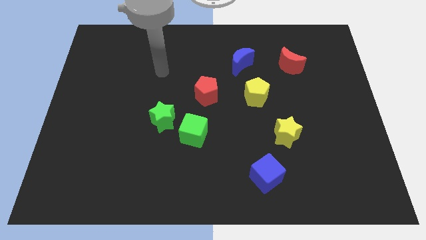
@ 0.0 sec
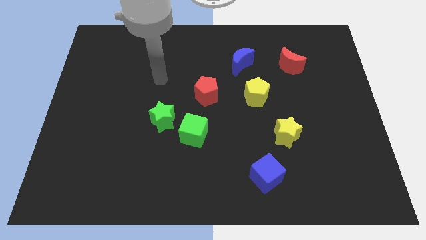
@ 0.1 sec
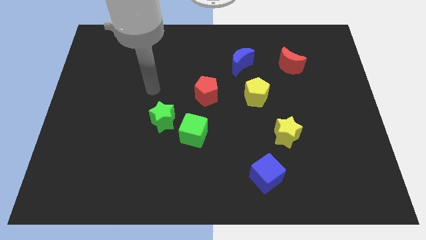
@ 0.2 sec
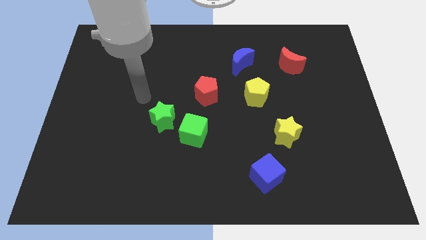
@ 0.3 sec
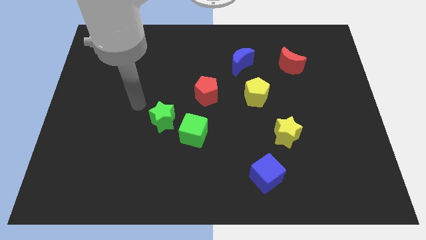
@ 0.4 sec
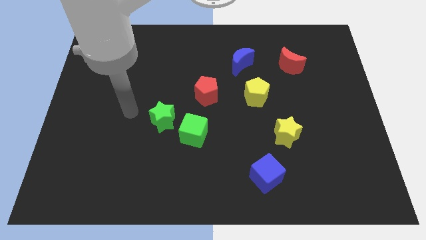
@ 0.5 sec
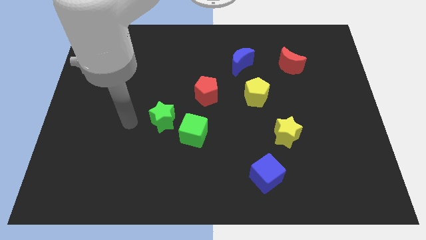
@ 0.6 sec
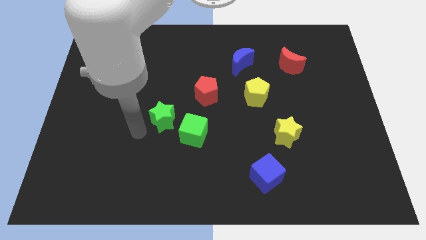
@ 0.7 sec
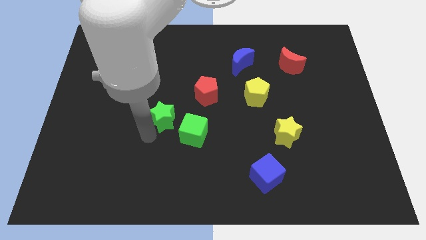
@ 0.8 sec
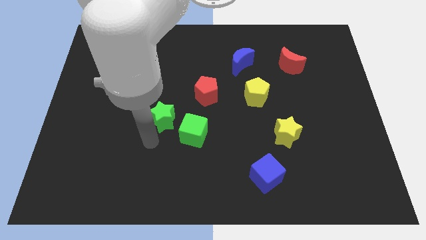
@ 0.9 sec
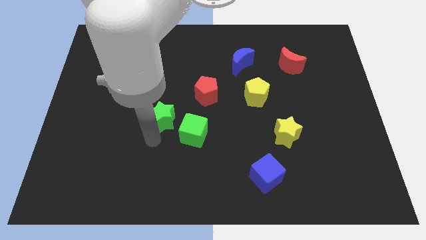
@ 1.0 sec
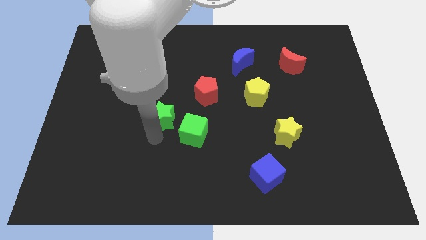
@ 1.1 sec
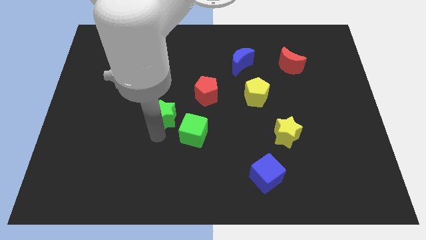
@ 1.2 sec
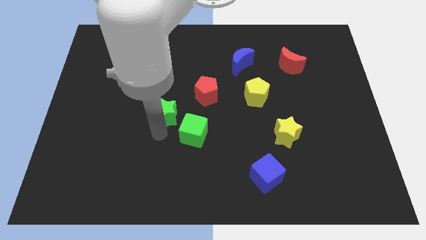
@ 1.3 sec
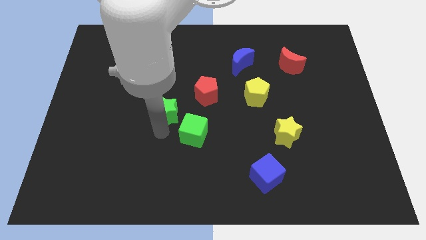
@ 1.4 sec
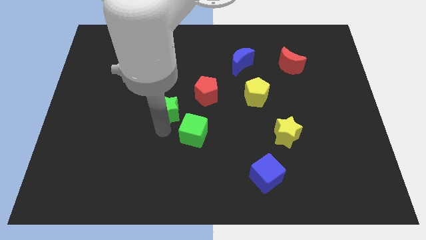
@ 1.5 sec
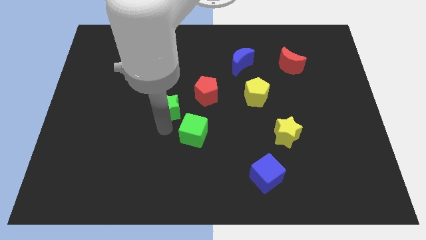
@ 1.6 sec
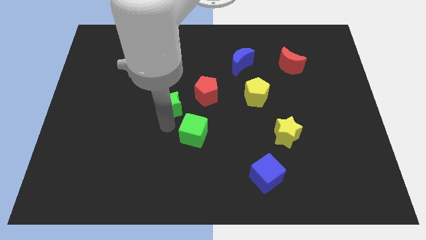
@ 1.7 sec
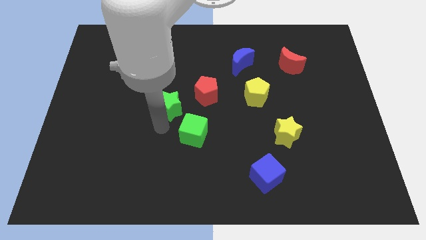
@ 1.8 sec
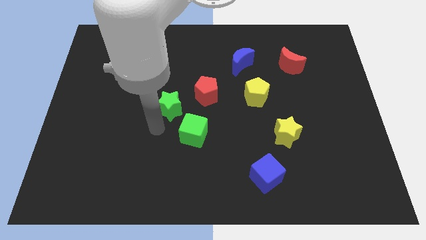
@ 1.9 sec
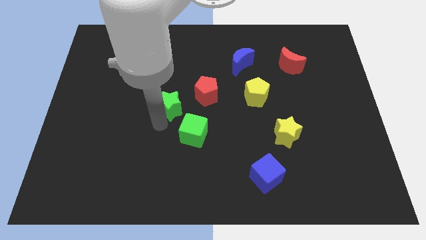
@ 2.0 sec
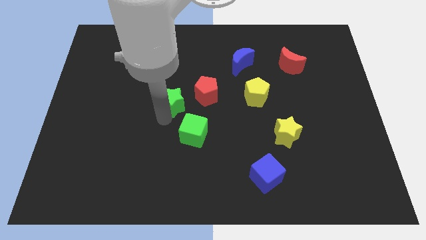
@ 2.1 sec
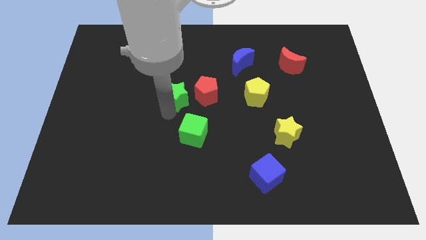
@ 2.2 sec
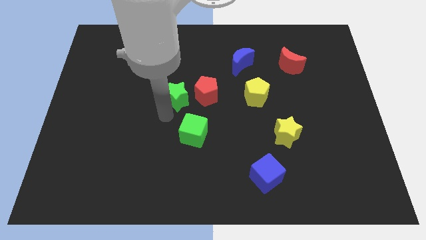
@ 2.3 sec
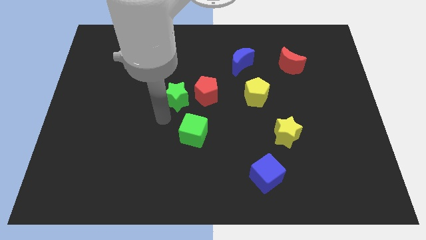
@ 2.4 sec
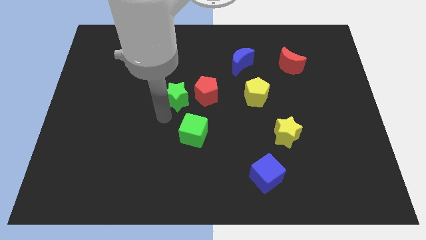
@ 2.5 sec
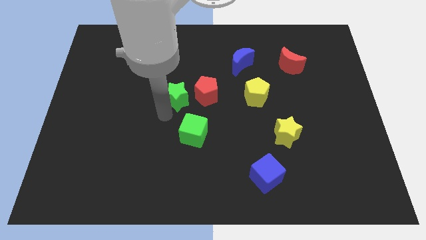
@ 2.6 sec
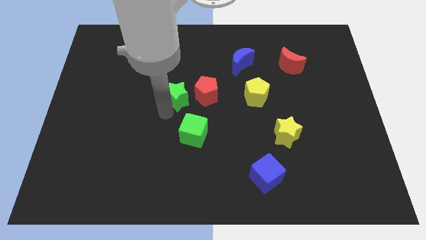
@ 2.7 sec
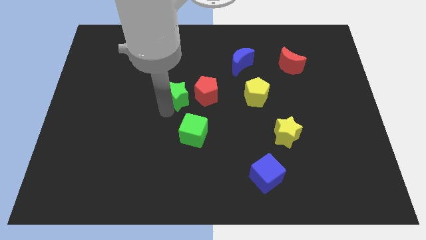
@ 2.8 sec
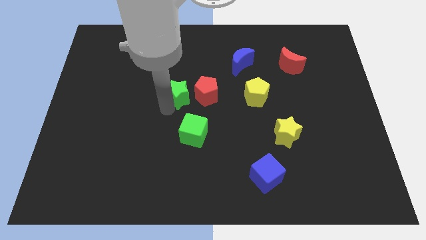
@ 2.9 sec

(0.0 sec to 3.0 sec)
move the green star upwards and right diagonally a little

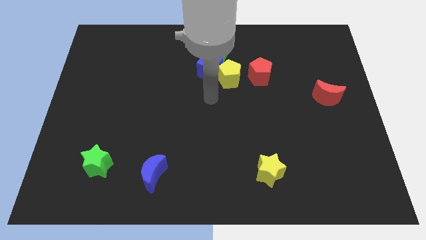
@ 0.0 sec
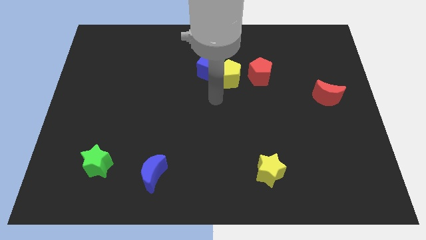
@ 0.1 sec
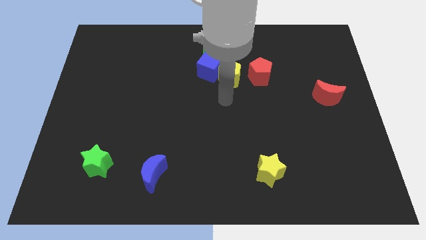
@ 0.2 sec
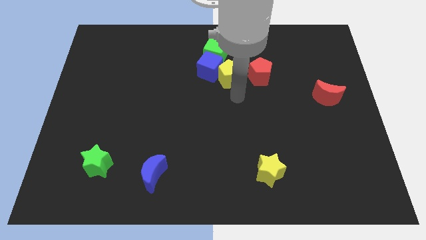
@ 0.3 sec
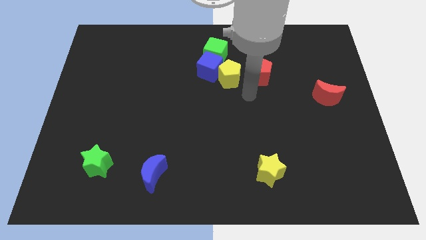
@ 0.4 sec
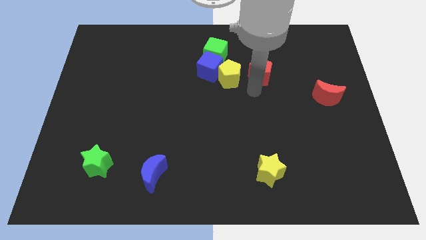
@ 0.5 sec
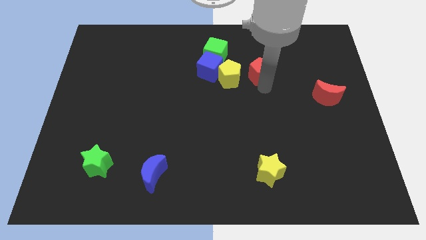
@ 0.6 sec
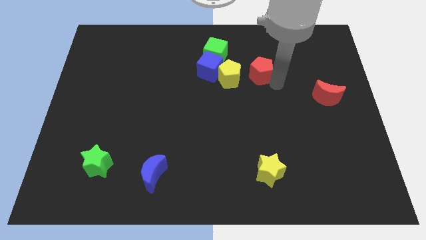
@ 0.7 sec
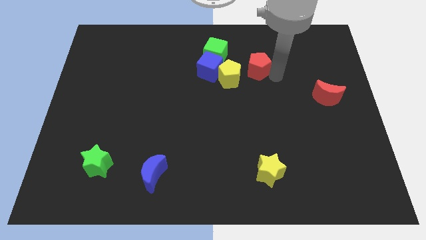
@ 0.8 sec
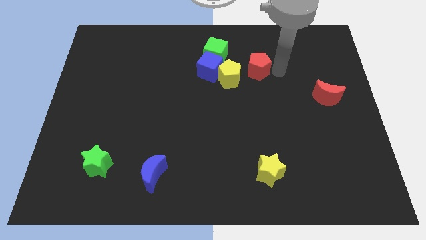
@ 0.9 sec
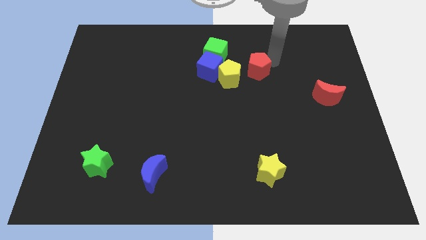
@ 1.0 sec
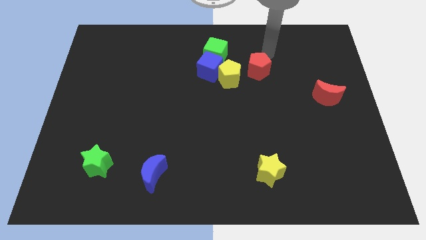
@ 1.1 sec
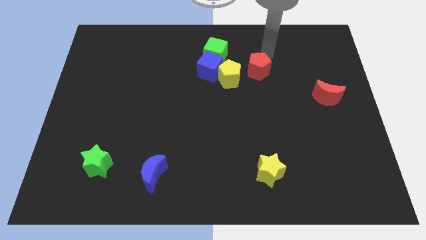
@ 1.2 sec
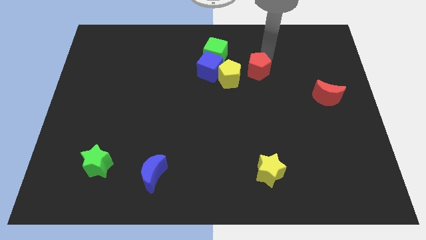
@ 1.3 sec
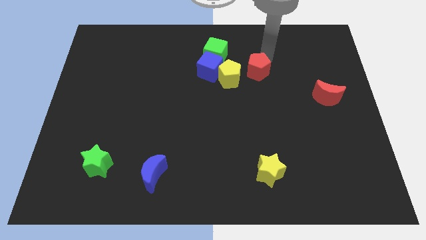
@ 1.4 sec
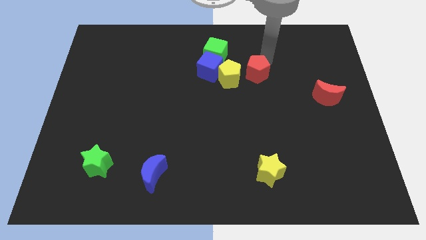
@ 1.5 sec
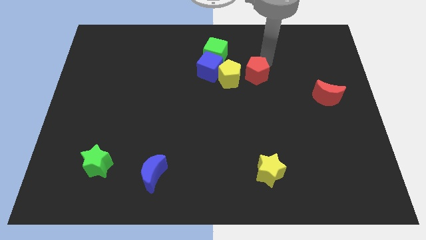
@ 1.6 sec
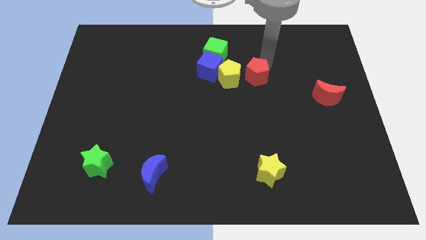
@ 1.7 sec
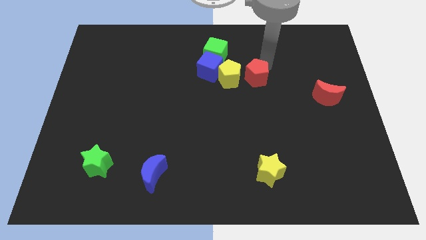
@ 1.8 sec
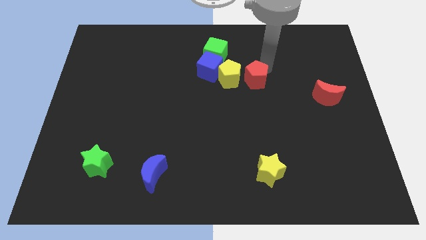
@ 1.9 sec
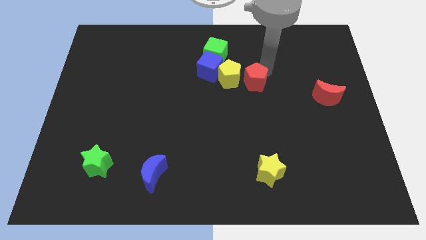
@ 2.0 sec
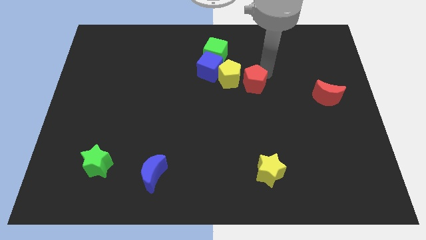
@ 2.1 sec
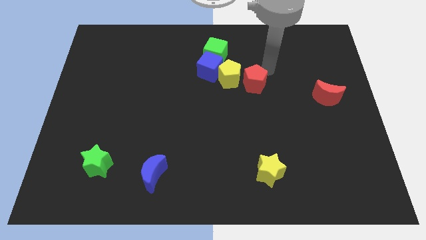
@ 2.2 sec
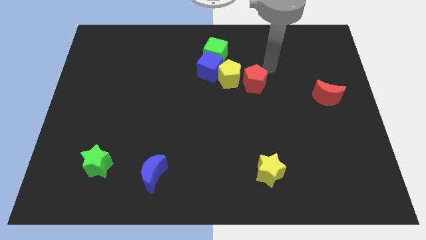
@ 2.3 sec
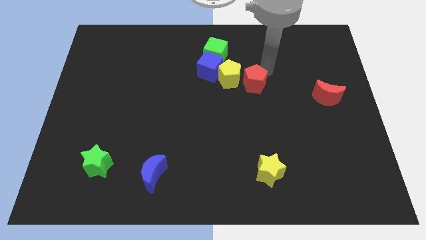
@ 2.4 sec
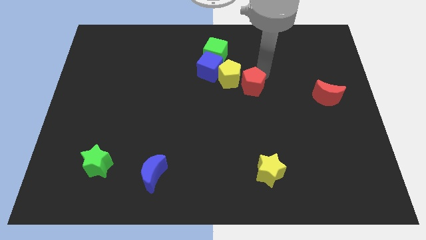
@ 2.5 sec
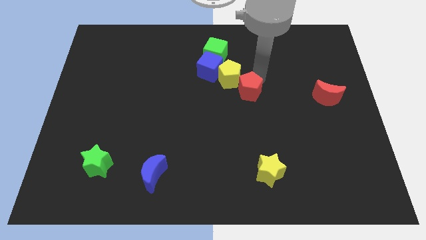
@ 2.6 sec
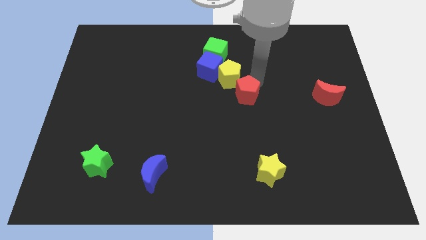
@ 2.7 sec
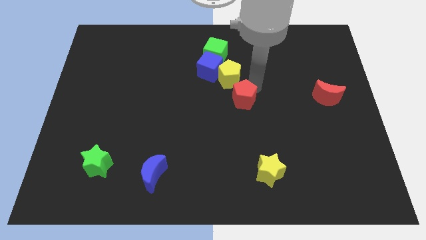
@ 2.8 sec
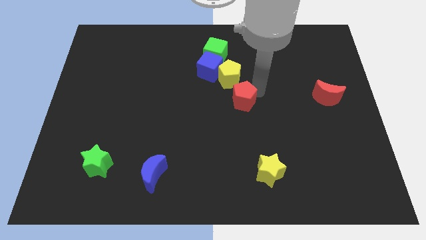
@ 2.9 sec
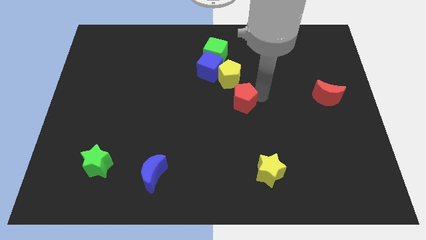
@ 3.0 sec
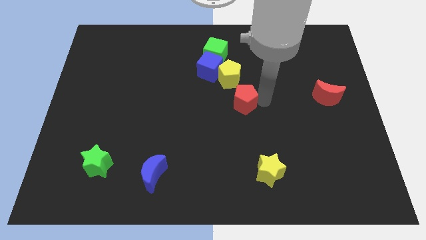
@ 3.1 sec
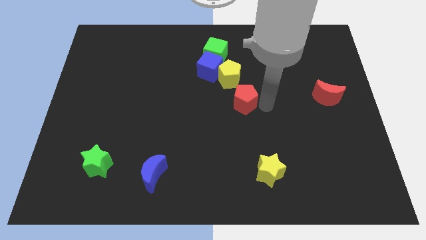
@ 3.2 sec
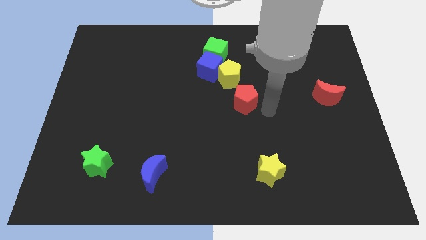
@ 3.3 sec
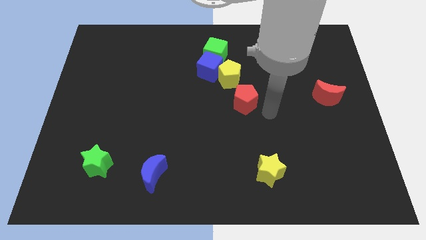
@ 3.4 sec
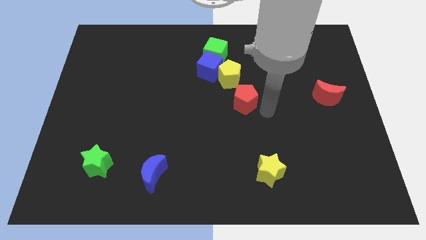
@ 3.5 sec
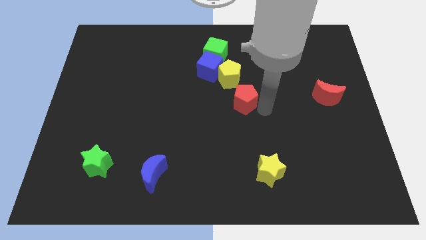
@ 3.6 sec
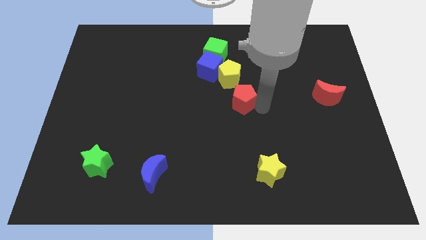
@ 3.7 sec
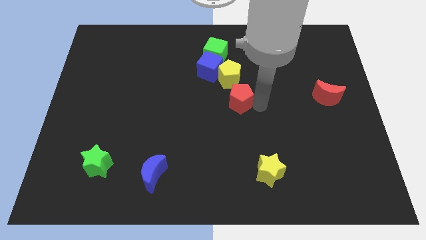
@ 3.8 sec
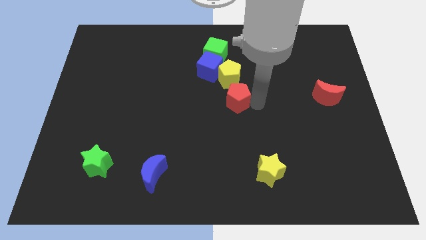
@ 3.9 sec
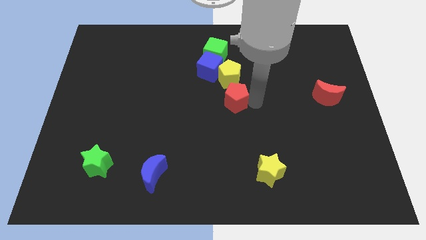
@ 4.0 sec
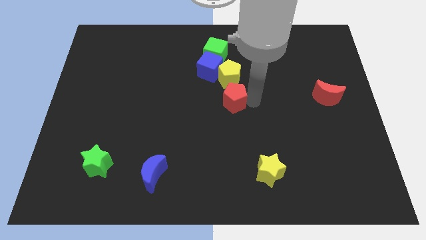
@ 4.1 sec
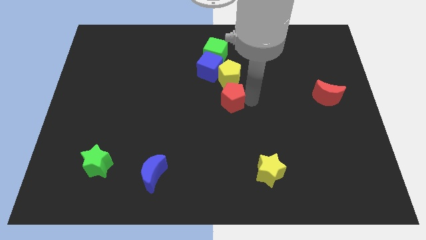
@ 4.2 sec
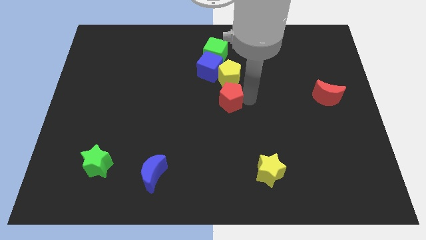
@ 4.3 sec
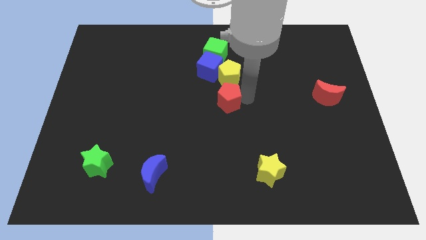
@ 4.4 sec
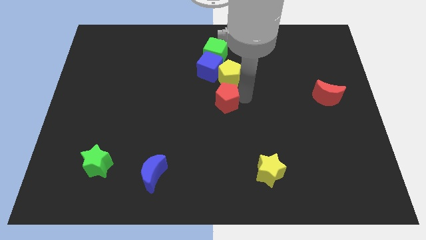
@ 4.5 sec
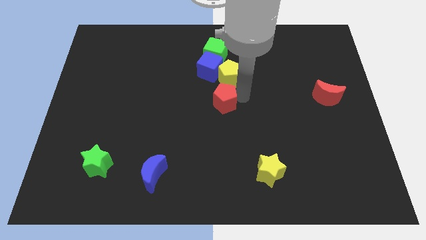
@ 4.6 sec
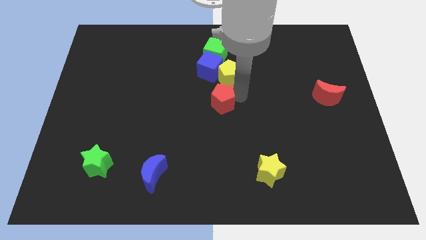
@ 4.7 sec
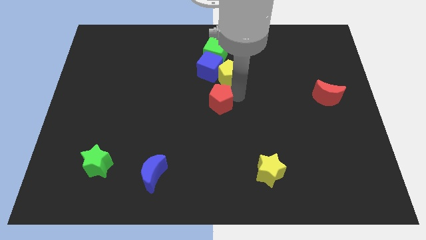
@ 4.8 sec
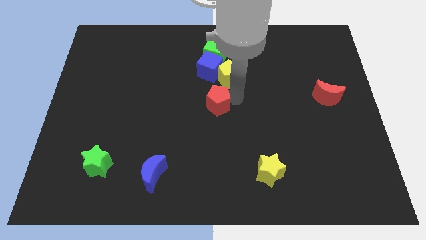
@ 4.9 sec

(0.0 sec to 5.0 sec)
slide the red pentagon left a little

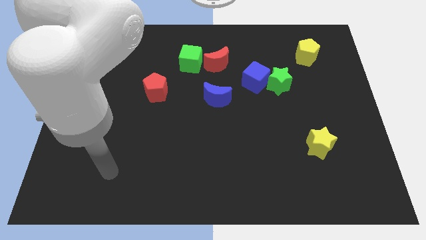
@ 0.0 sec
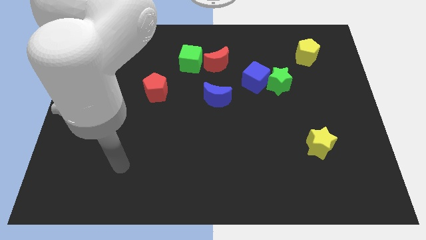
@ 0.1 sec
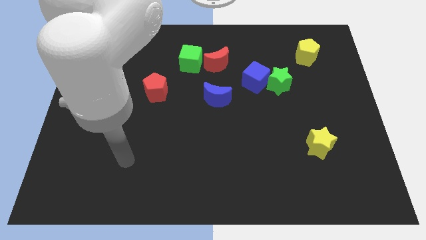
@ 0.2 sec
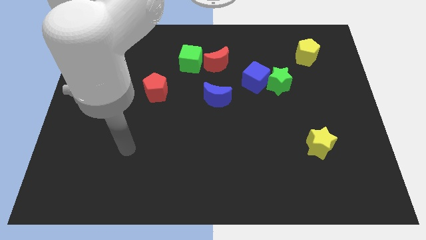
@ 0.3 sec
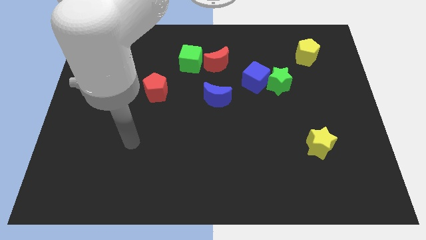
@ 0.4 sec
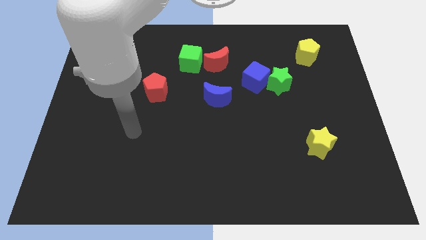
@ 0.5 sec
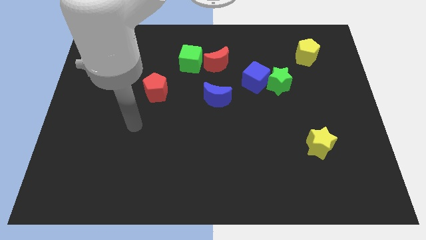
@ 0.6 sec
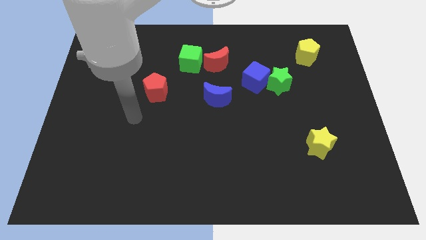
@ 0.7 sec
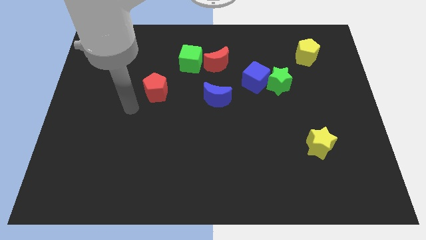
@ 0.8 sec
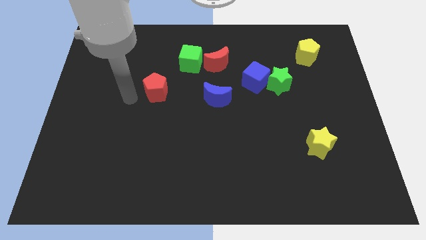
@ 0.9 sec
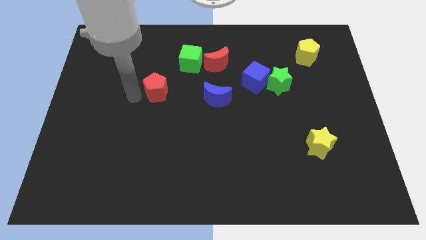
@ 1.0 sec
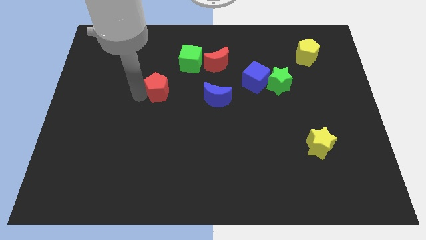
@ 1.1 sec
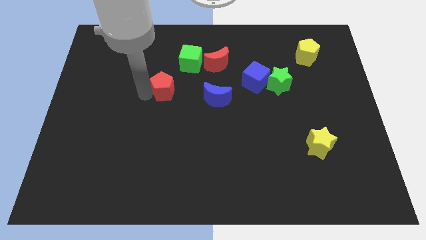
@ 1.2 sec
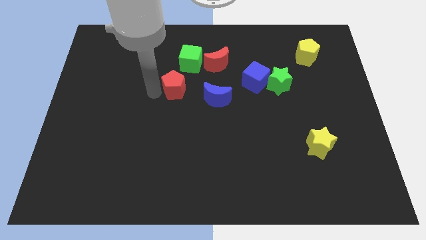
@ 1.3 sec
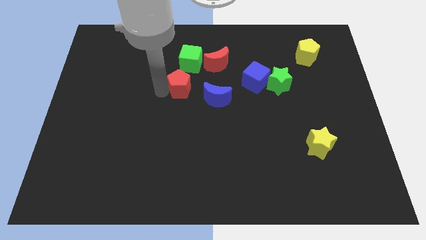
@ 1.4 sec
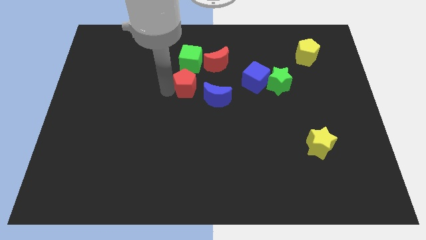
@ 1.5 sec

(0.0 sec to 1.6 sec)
move the red pentagon to the right a little bit
